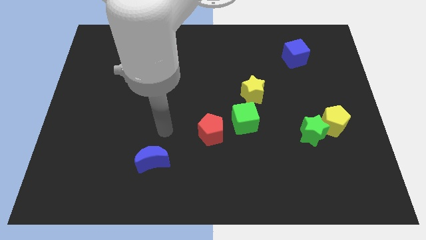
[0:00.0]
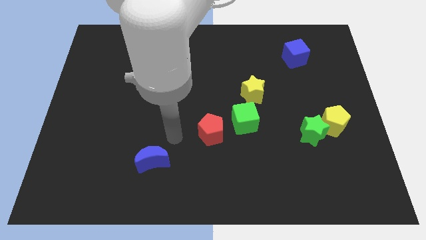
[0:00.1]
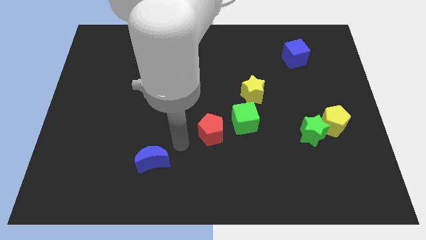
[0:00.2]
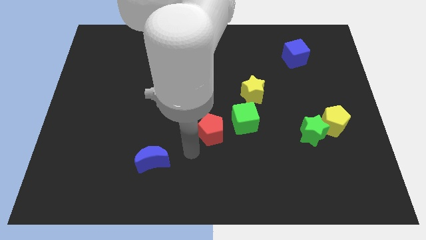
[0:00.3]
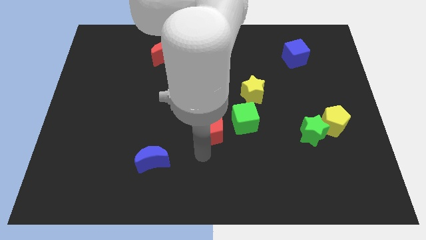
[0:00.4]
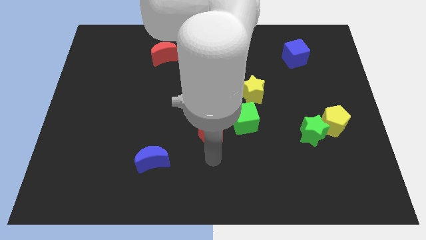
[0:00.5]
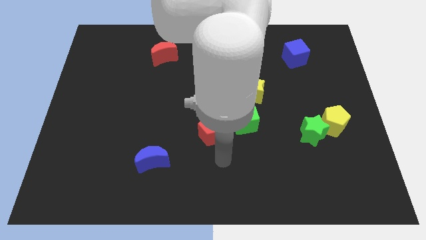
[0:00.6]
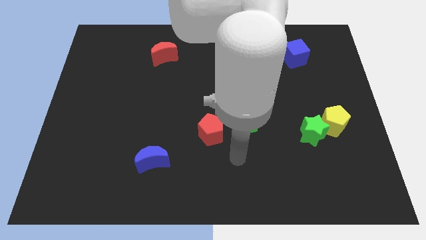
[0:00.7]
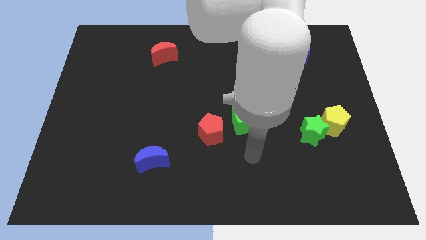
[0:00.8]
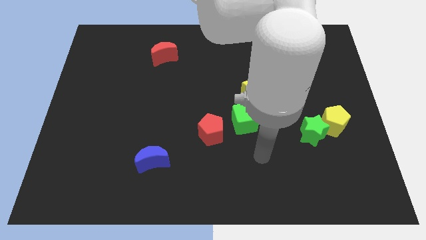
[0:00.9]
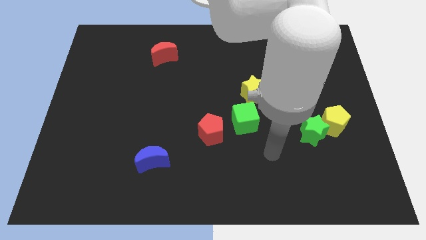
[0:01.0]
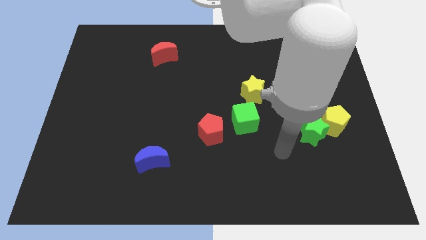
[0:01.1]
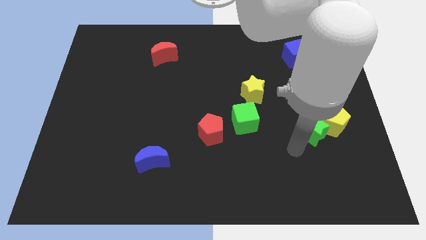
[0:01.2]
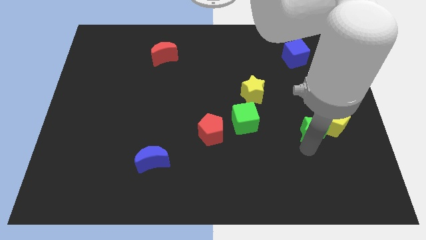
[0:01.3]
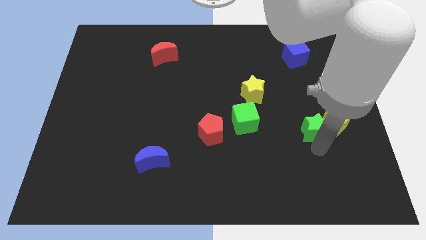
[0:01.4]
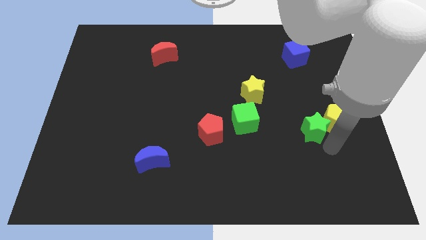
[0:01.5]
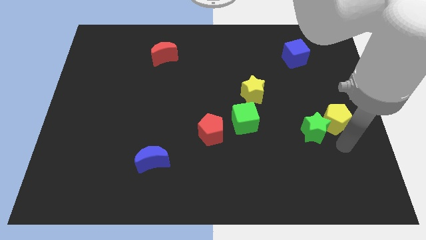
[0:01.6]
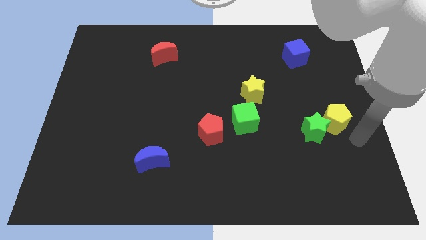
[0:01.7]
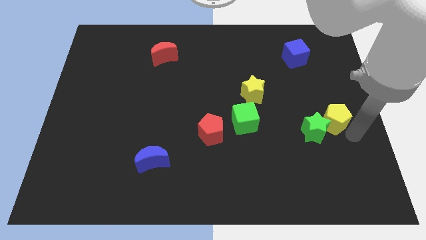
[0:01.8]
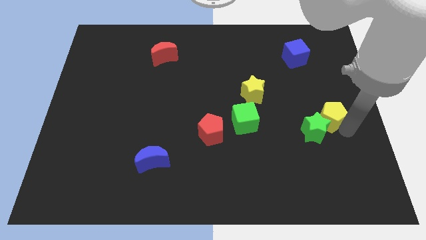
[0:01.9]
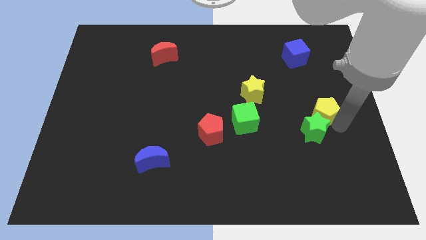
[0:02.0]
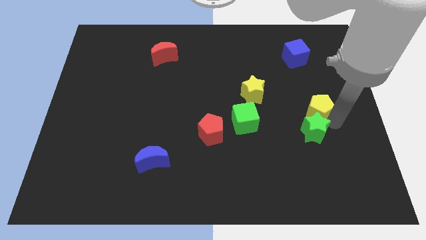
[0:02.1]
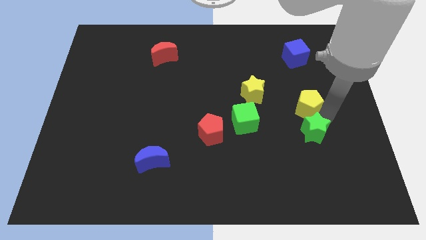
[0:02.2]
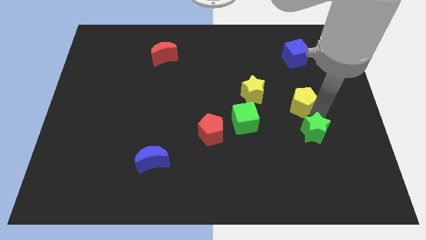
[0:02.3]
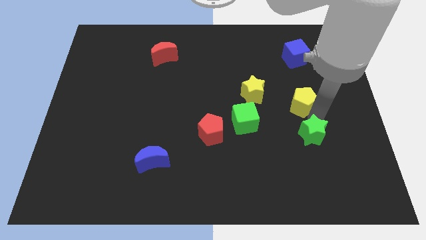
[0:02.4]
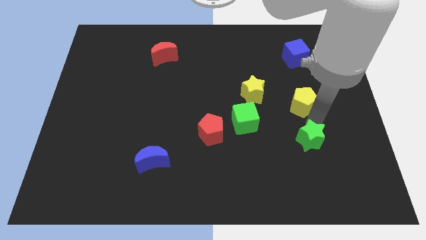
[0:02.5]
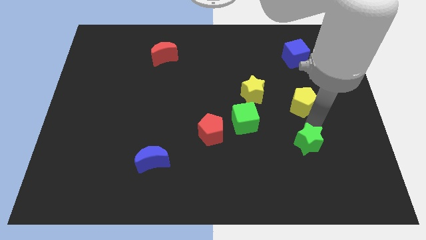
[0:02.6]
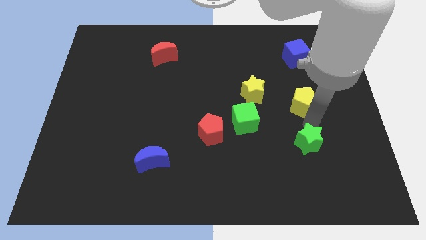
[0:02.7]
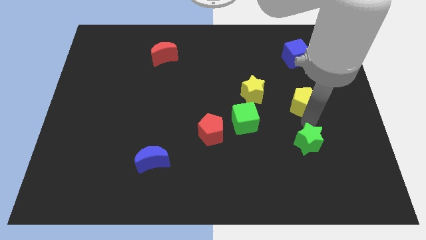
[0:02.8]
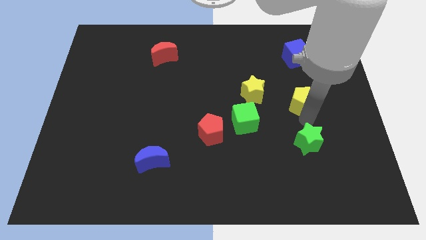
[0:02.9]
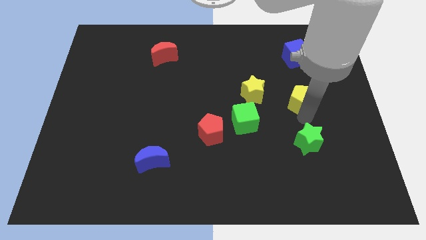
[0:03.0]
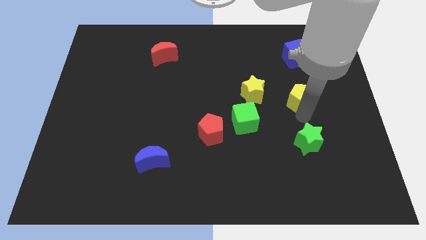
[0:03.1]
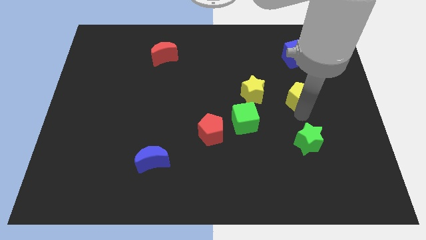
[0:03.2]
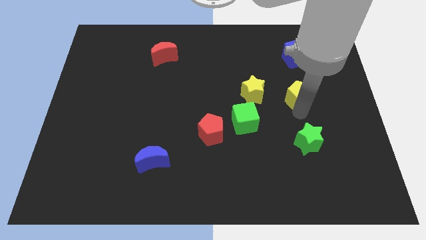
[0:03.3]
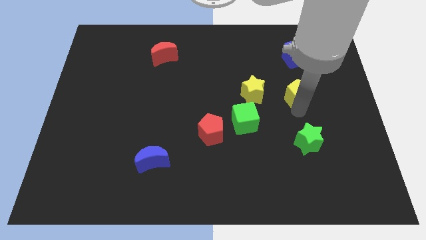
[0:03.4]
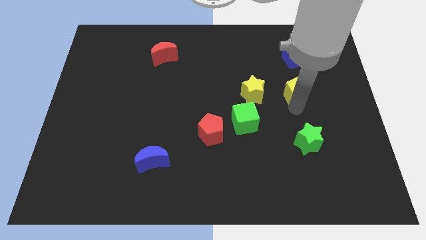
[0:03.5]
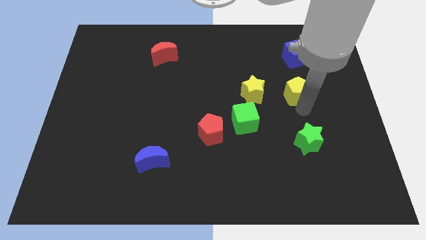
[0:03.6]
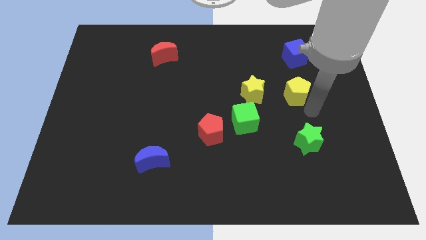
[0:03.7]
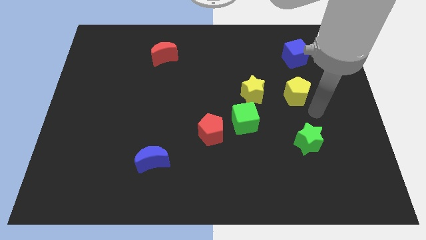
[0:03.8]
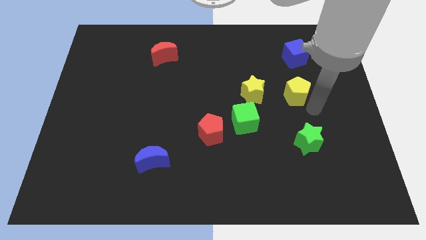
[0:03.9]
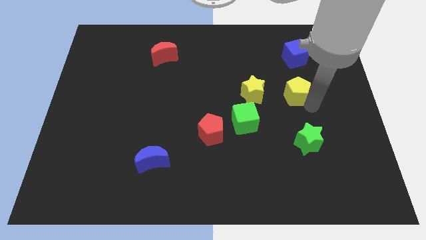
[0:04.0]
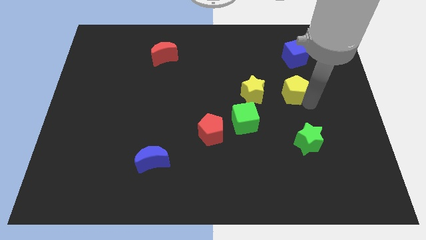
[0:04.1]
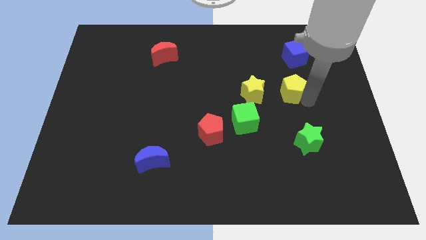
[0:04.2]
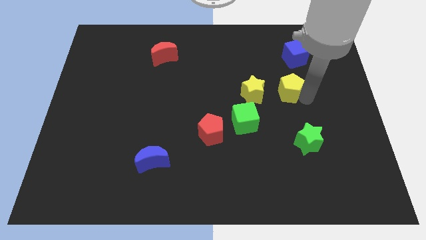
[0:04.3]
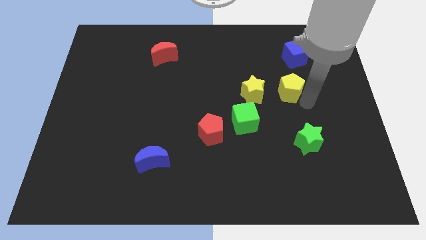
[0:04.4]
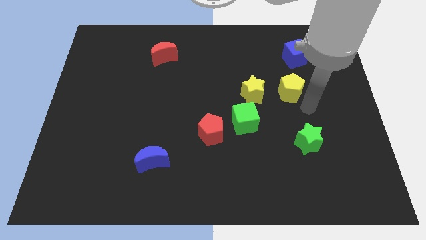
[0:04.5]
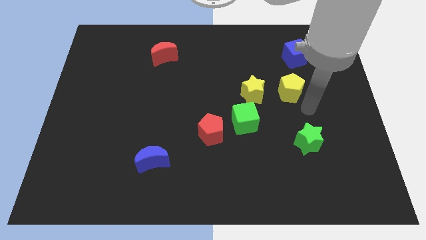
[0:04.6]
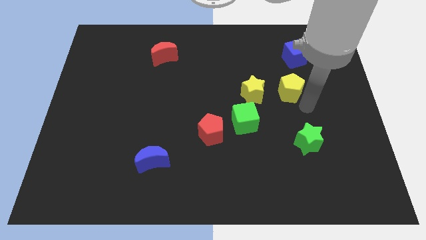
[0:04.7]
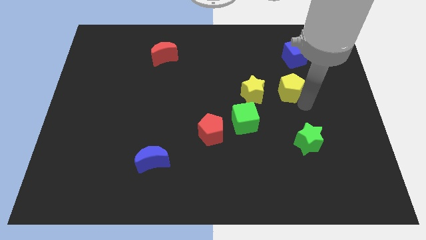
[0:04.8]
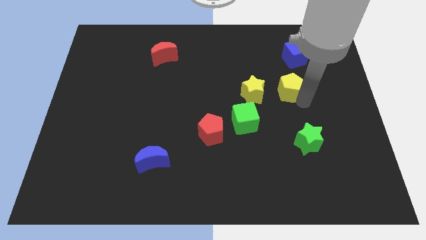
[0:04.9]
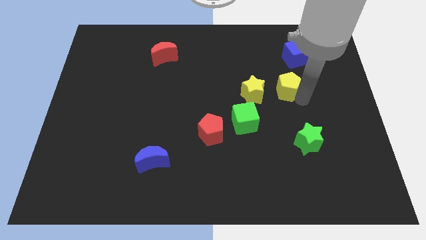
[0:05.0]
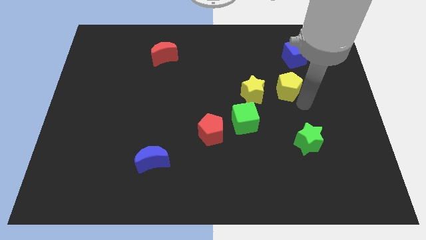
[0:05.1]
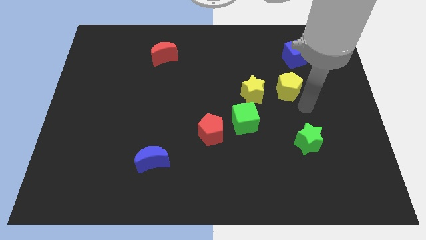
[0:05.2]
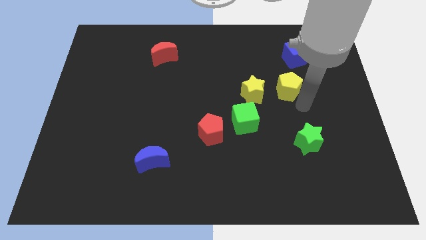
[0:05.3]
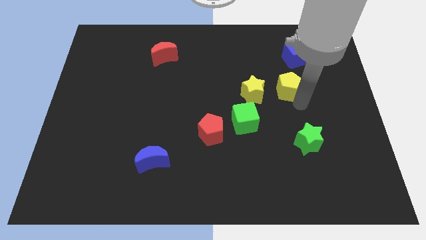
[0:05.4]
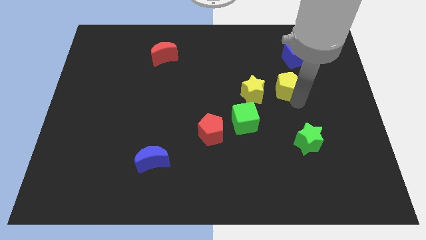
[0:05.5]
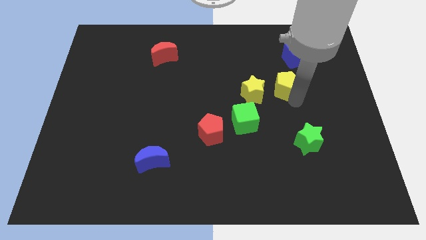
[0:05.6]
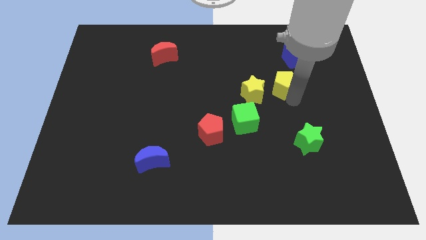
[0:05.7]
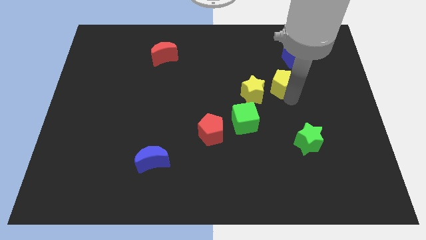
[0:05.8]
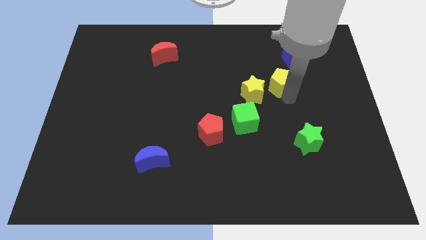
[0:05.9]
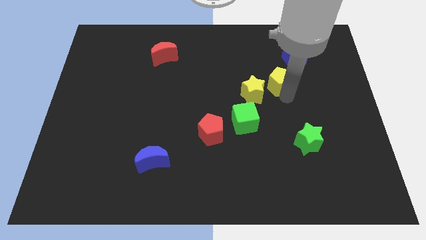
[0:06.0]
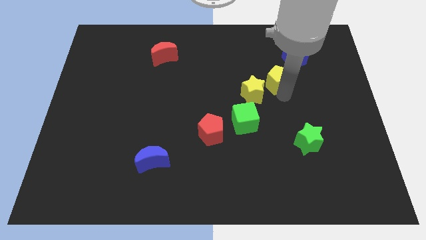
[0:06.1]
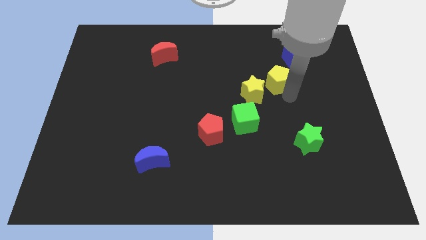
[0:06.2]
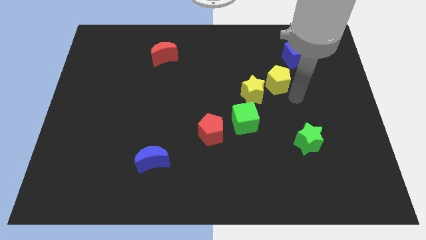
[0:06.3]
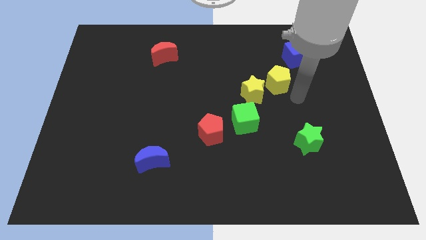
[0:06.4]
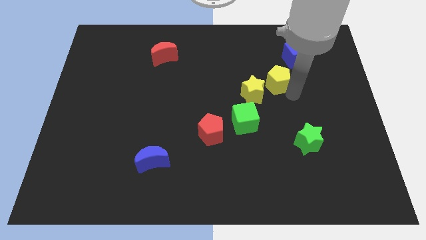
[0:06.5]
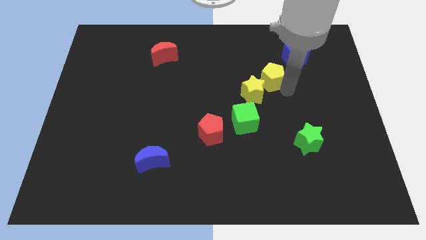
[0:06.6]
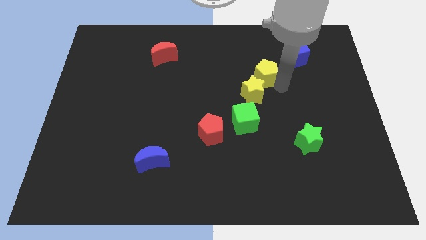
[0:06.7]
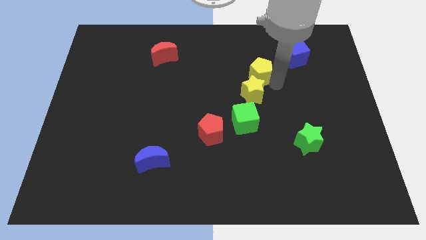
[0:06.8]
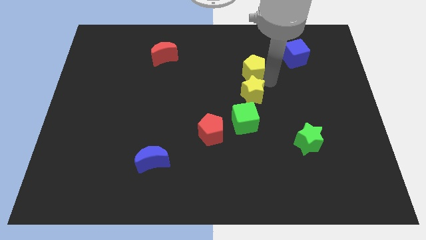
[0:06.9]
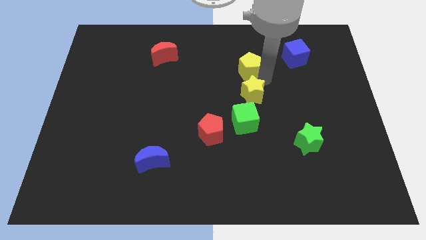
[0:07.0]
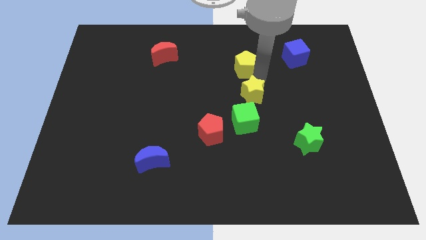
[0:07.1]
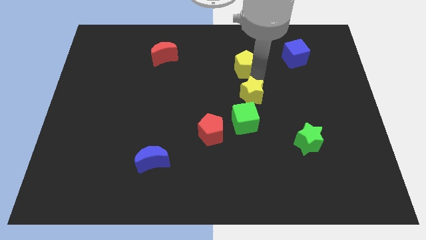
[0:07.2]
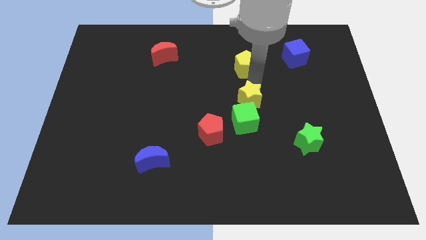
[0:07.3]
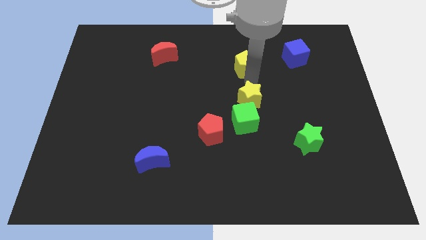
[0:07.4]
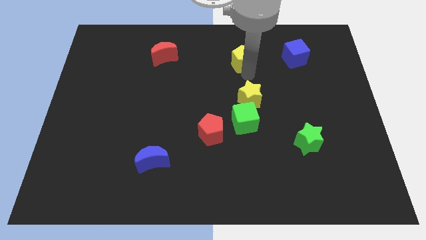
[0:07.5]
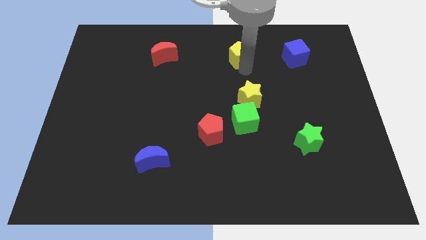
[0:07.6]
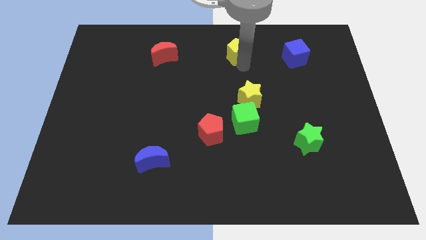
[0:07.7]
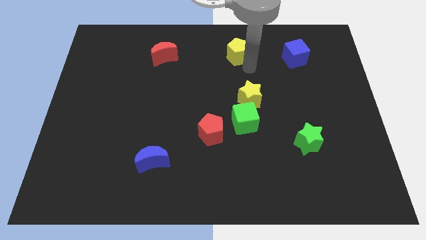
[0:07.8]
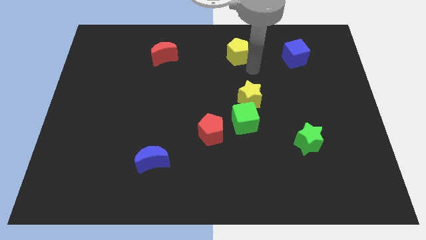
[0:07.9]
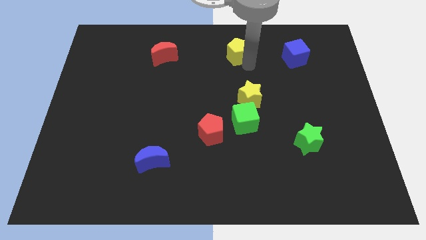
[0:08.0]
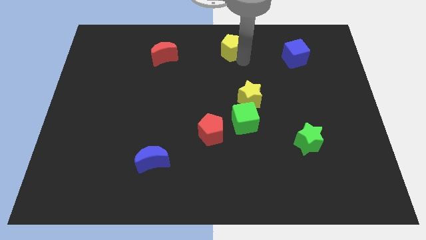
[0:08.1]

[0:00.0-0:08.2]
slide the yellow pentagon to the top
